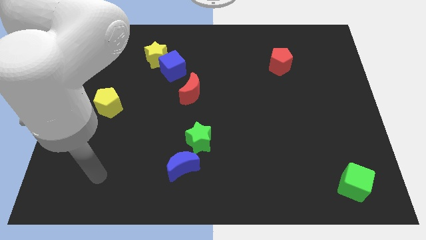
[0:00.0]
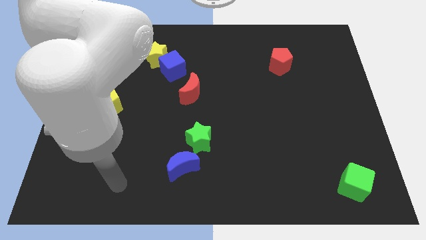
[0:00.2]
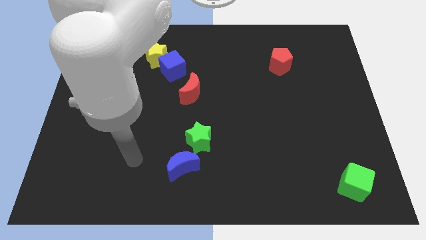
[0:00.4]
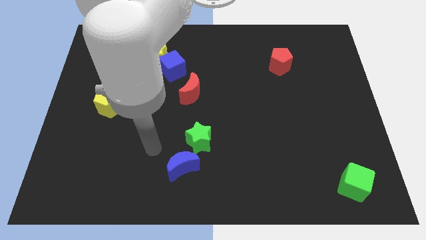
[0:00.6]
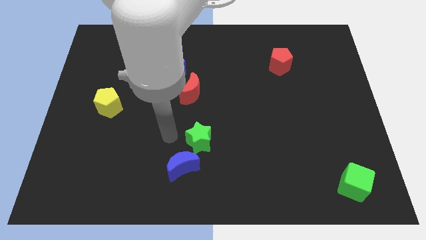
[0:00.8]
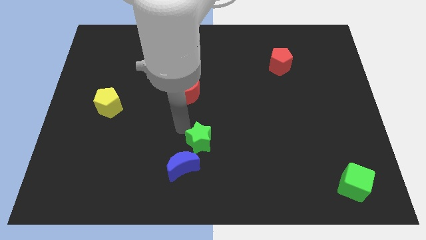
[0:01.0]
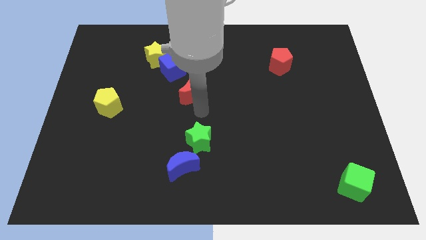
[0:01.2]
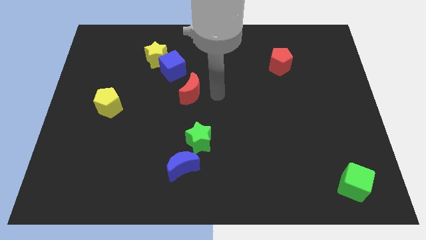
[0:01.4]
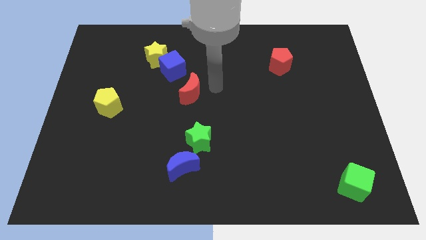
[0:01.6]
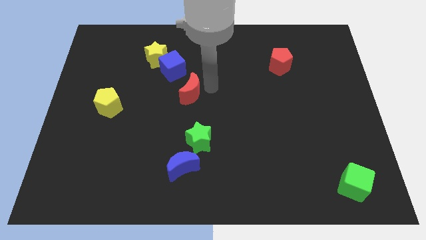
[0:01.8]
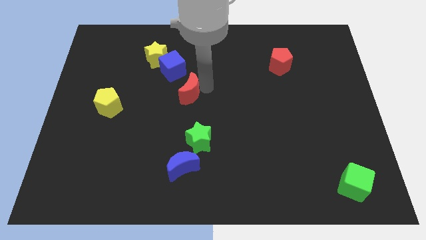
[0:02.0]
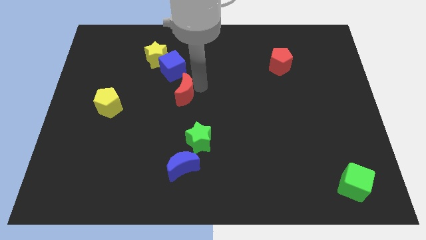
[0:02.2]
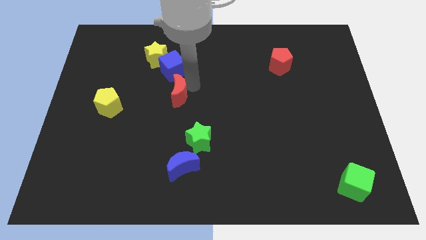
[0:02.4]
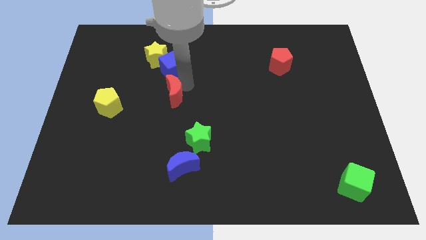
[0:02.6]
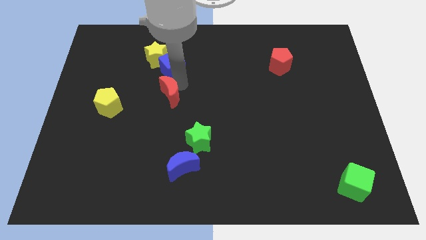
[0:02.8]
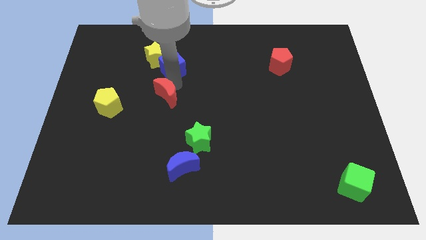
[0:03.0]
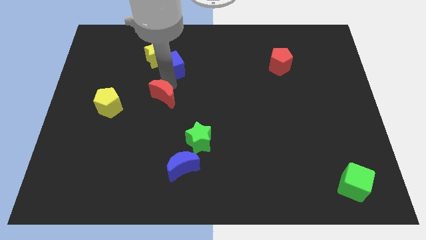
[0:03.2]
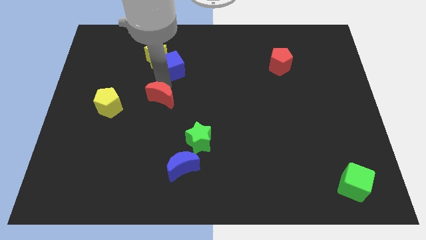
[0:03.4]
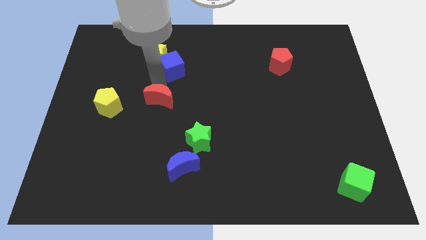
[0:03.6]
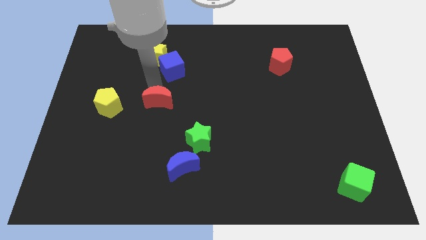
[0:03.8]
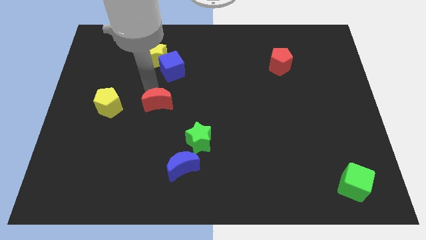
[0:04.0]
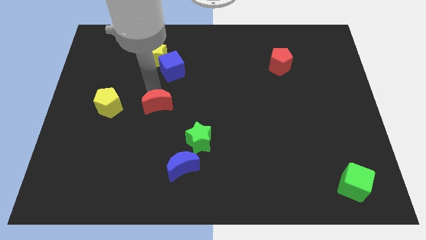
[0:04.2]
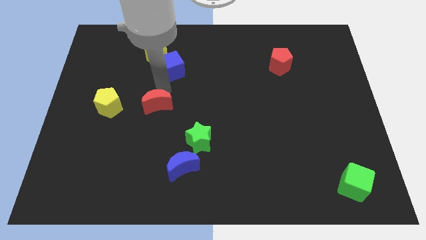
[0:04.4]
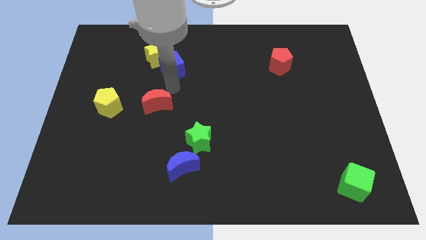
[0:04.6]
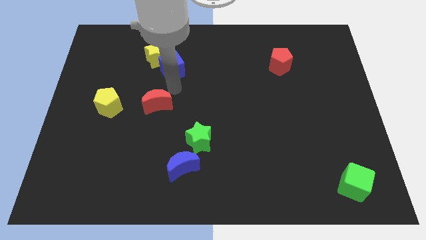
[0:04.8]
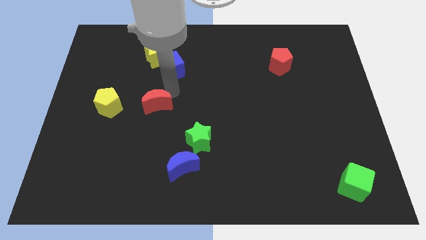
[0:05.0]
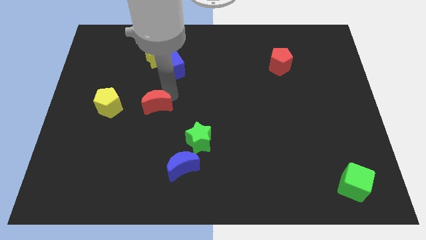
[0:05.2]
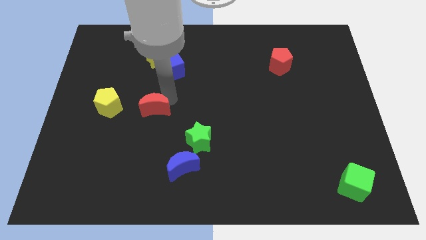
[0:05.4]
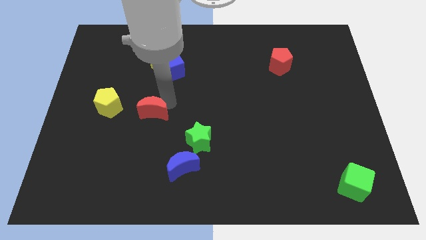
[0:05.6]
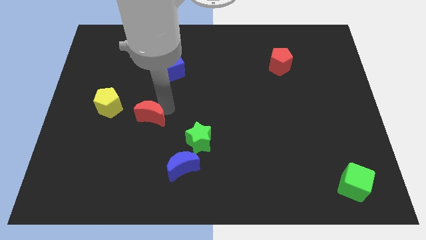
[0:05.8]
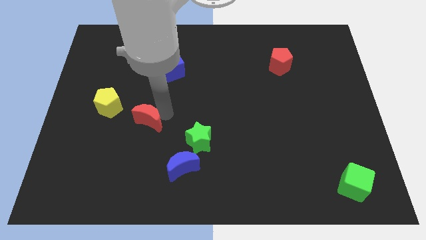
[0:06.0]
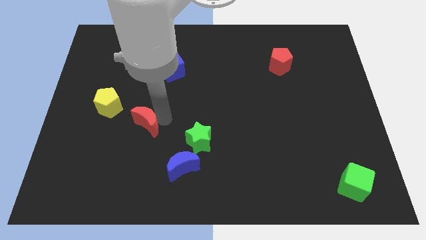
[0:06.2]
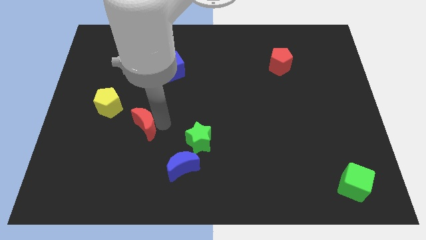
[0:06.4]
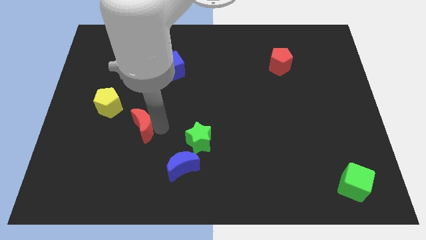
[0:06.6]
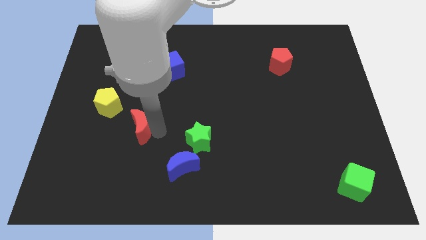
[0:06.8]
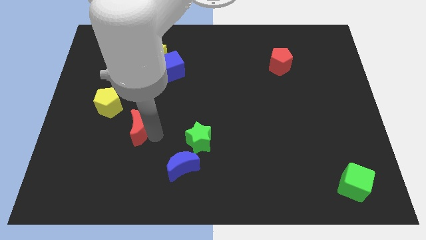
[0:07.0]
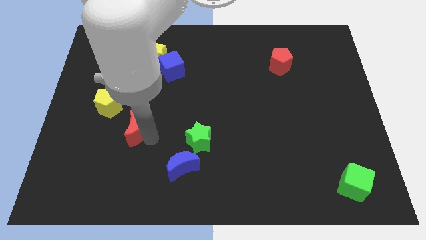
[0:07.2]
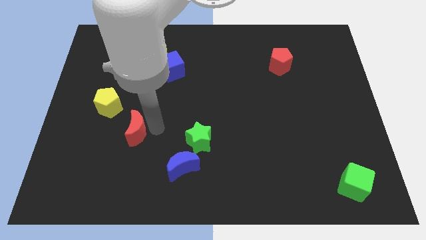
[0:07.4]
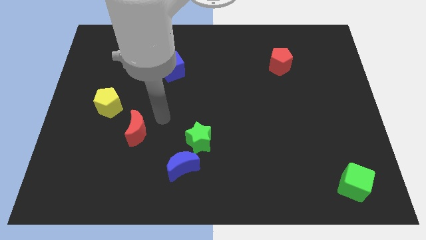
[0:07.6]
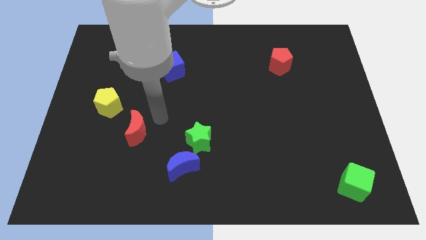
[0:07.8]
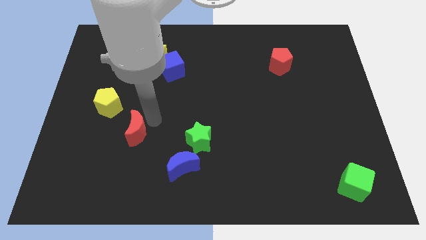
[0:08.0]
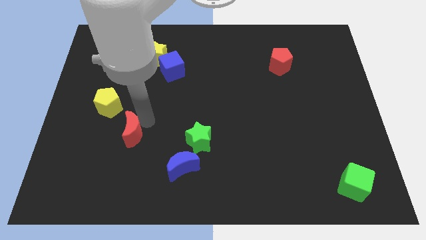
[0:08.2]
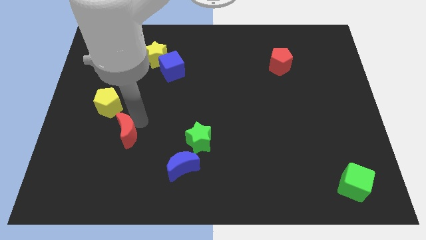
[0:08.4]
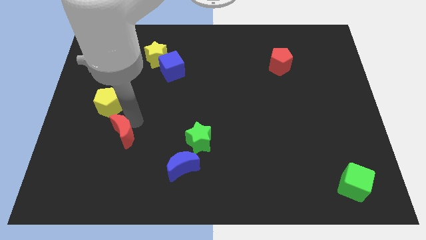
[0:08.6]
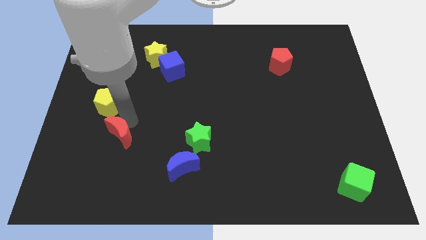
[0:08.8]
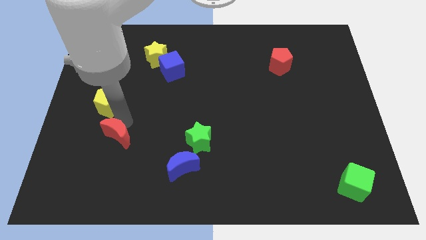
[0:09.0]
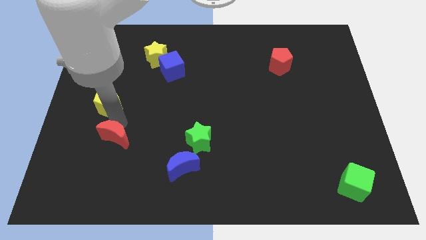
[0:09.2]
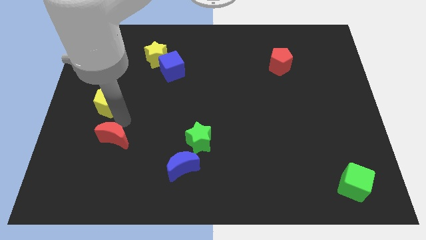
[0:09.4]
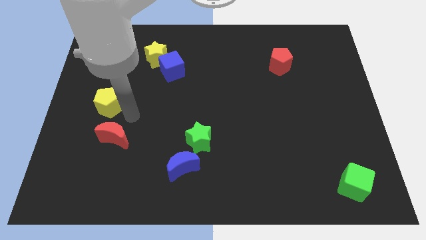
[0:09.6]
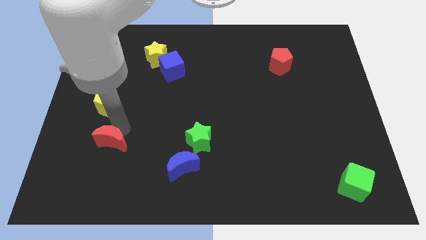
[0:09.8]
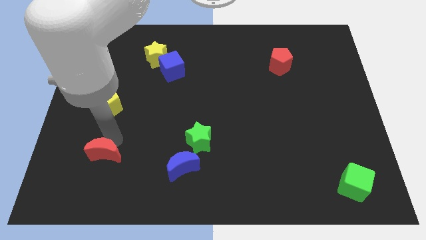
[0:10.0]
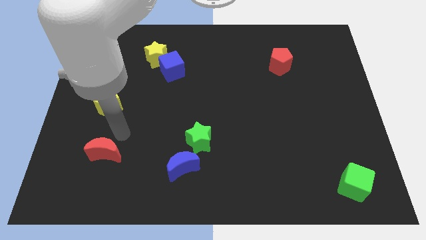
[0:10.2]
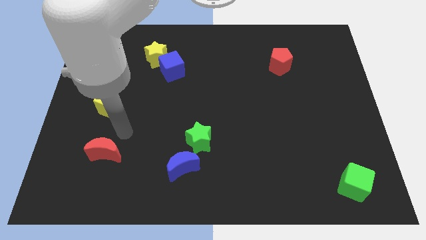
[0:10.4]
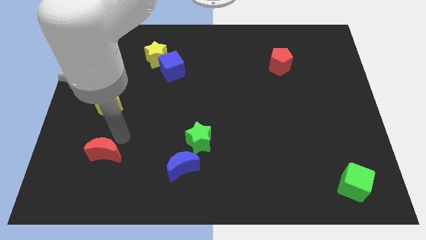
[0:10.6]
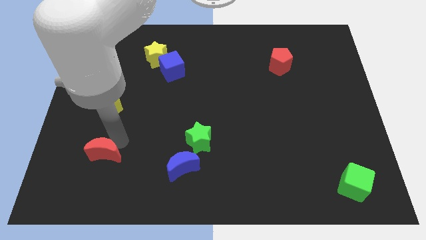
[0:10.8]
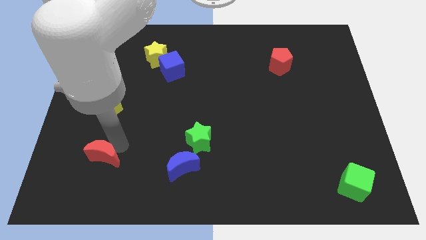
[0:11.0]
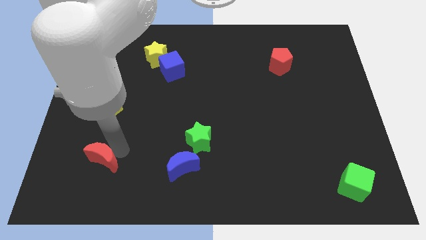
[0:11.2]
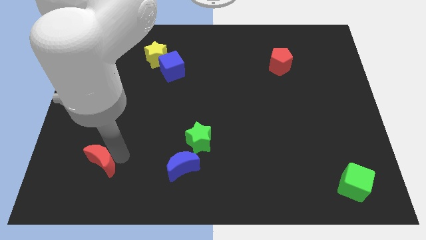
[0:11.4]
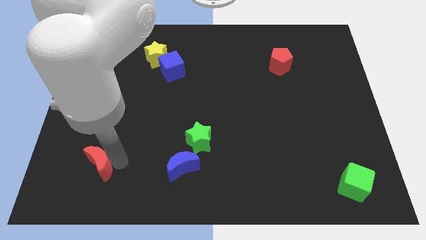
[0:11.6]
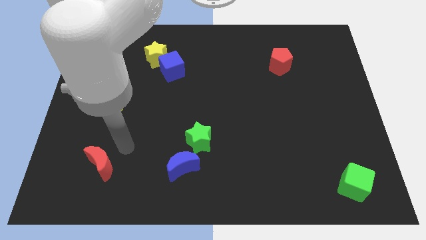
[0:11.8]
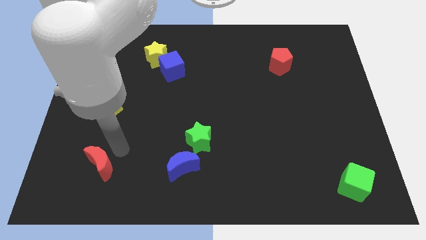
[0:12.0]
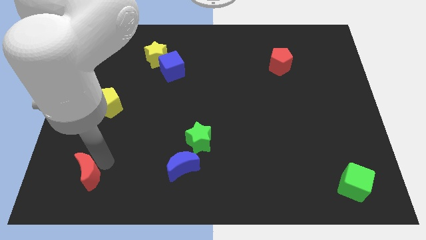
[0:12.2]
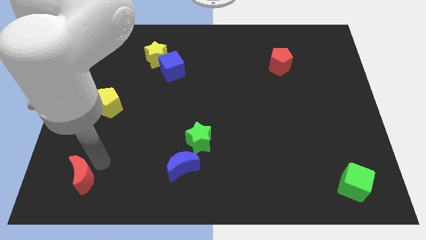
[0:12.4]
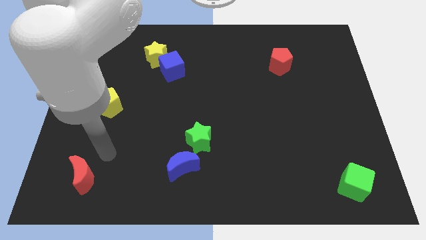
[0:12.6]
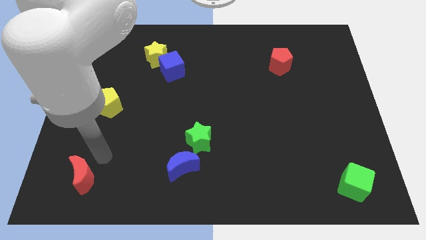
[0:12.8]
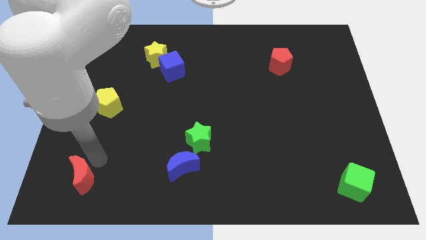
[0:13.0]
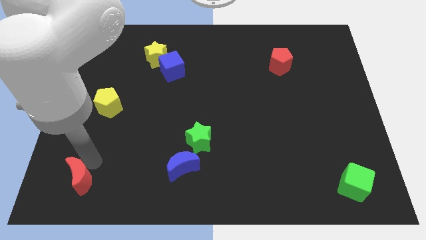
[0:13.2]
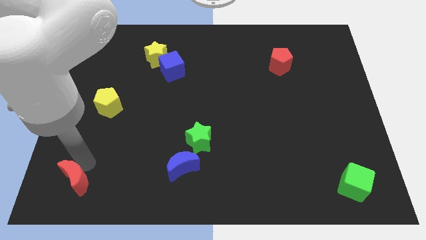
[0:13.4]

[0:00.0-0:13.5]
put the red moon to the lower left corner

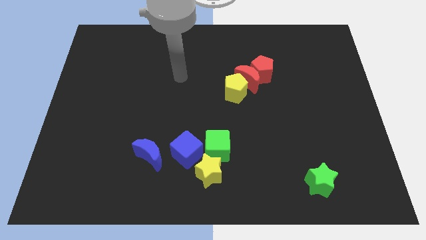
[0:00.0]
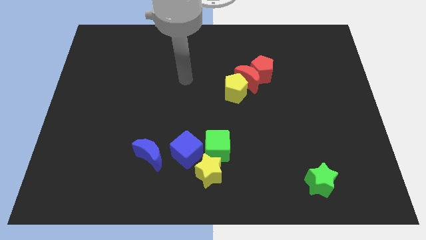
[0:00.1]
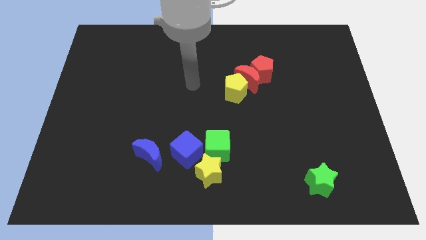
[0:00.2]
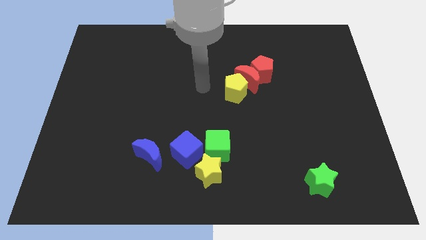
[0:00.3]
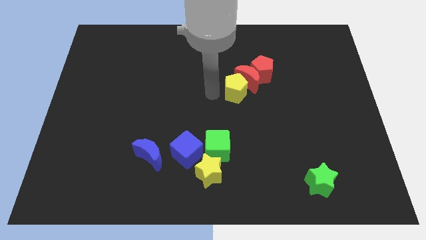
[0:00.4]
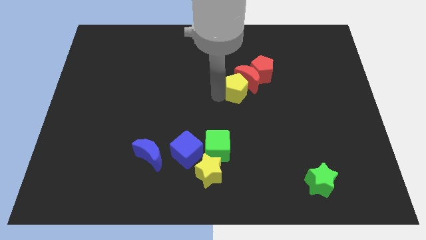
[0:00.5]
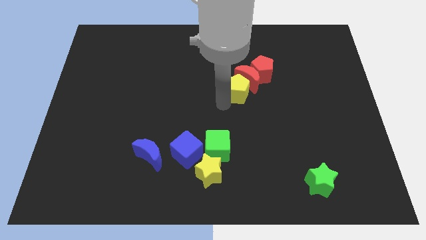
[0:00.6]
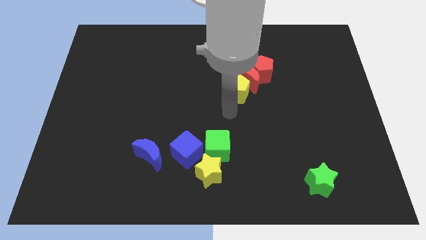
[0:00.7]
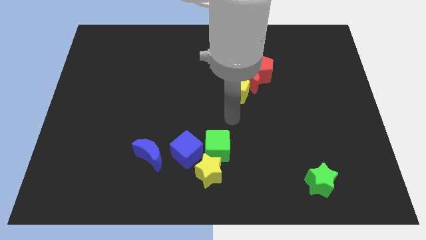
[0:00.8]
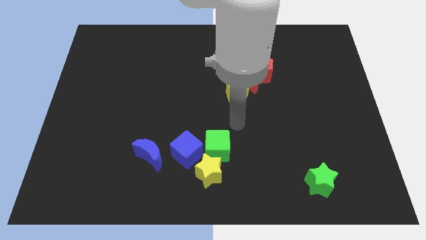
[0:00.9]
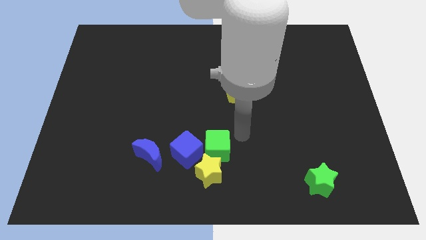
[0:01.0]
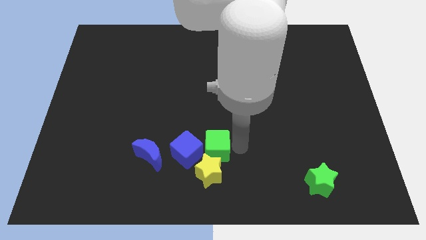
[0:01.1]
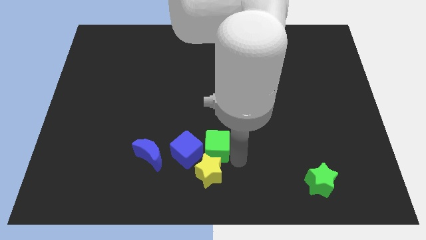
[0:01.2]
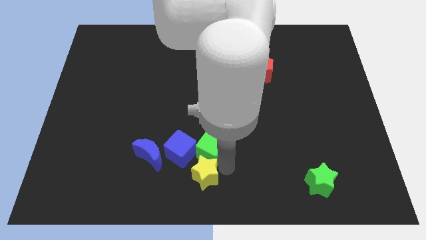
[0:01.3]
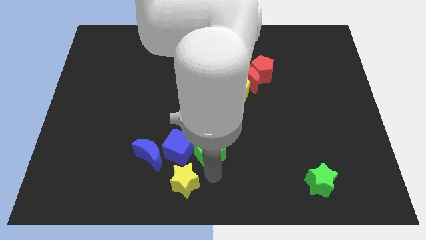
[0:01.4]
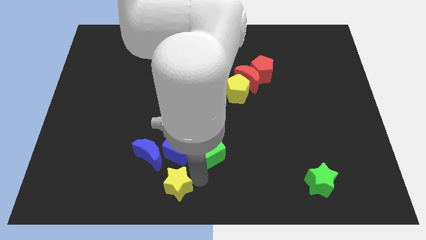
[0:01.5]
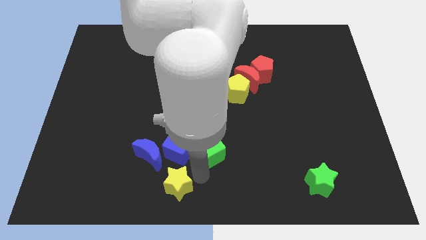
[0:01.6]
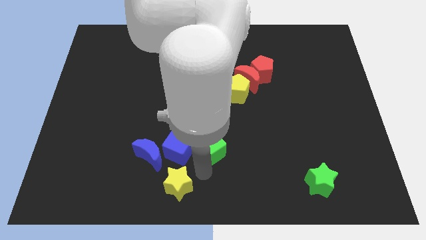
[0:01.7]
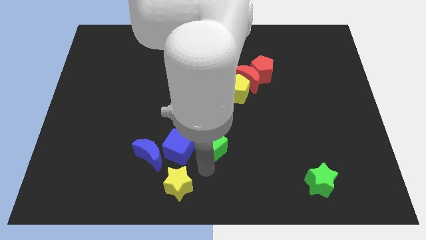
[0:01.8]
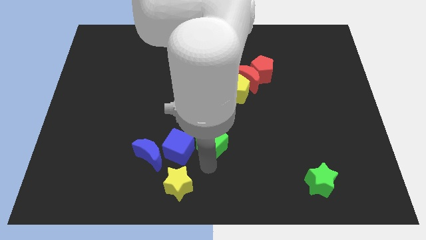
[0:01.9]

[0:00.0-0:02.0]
slide the green cube to the center
